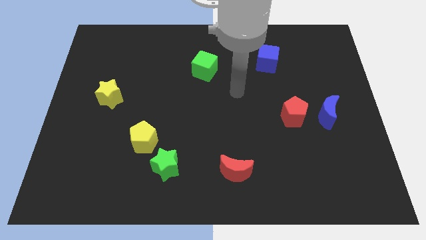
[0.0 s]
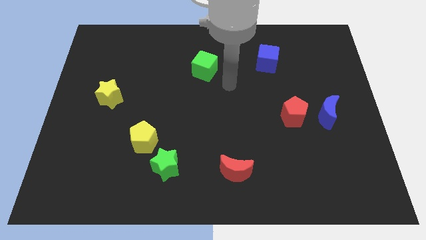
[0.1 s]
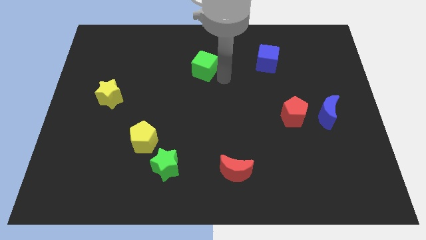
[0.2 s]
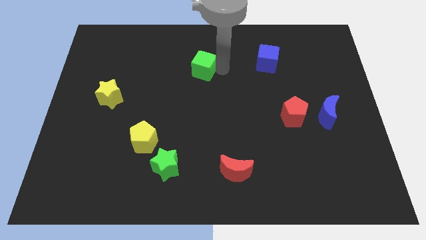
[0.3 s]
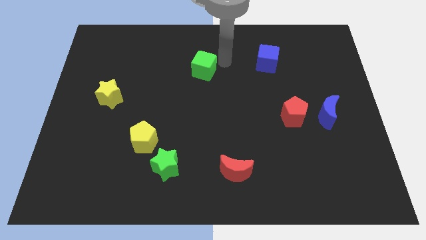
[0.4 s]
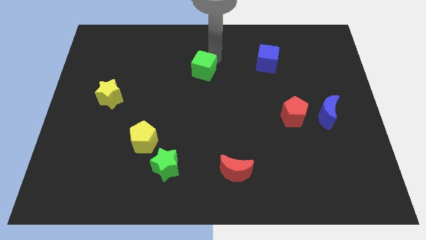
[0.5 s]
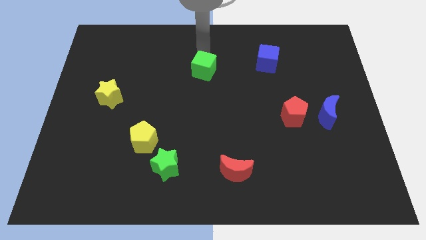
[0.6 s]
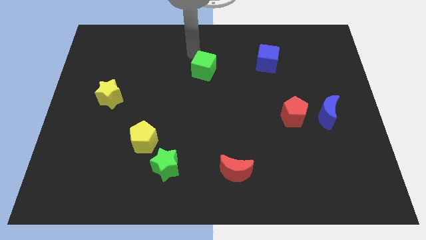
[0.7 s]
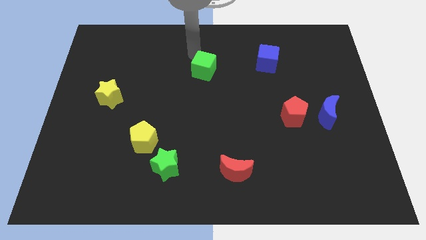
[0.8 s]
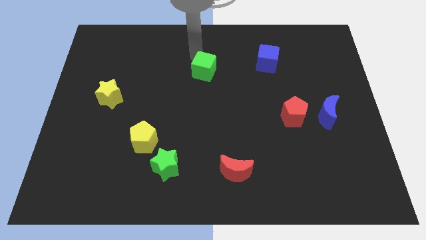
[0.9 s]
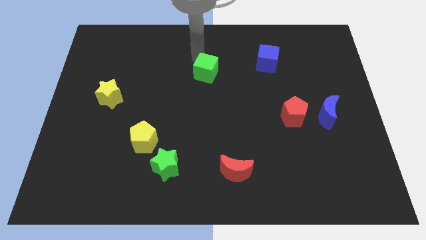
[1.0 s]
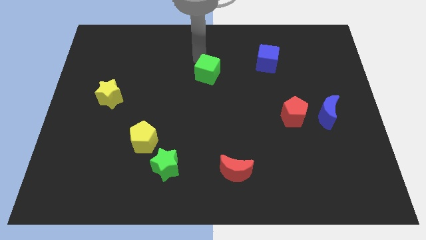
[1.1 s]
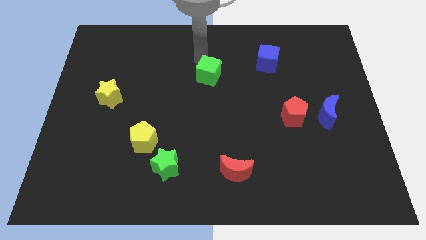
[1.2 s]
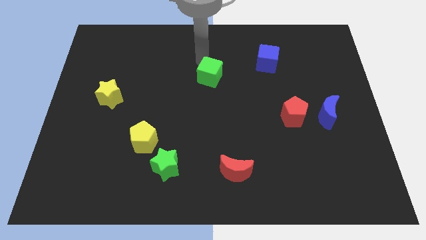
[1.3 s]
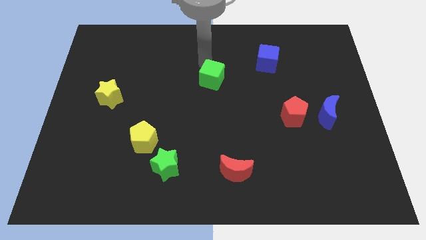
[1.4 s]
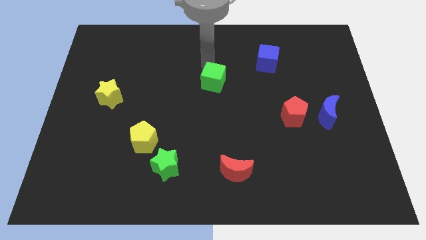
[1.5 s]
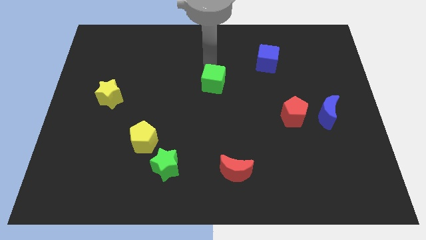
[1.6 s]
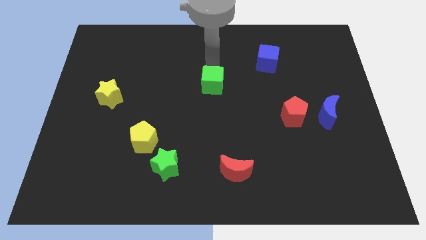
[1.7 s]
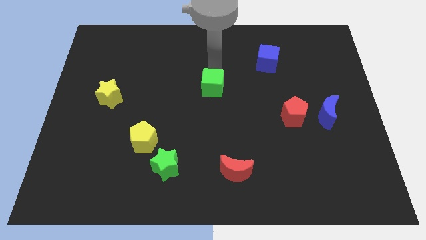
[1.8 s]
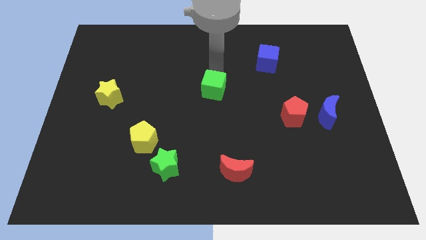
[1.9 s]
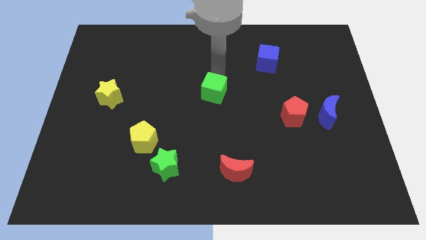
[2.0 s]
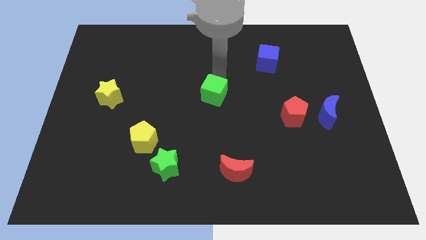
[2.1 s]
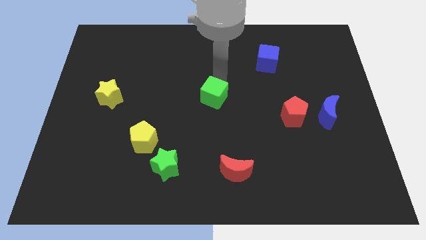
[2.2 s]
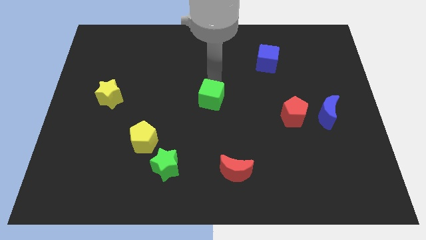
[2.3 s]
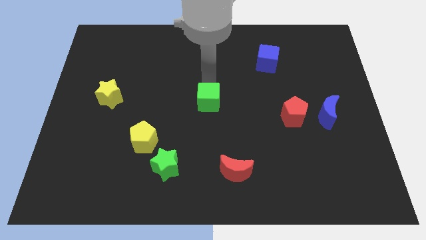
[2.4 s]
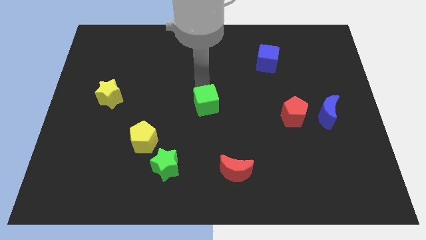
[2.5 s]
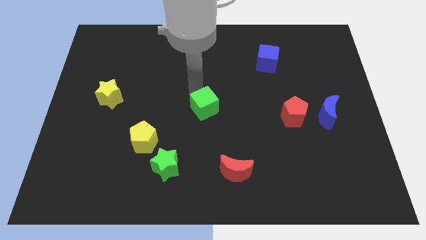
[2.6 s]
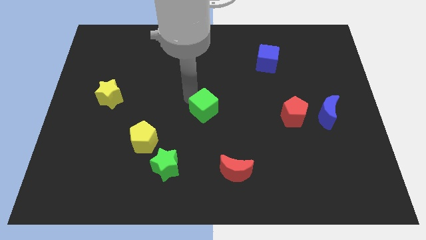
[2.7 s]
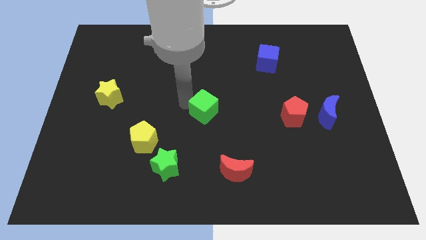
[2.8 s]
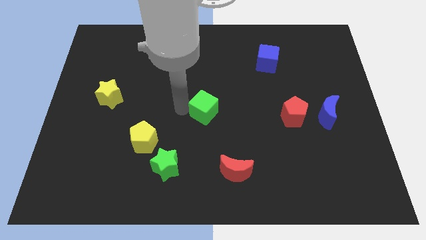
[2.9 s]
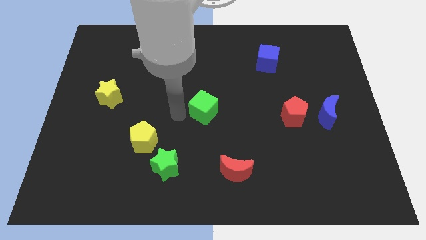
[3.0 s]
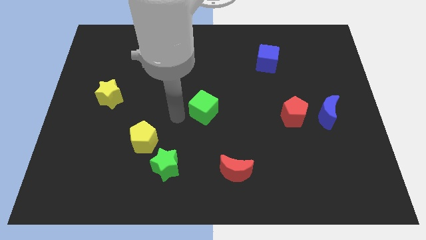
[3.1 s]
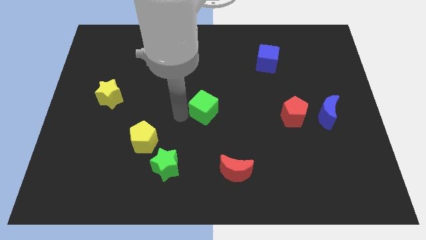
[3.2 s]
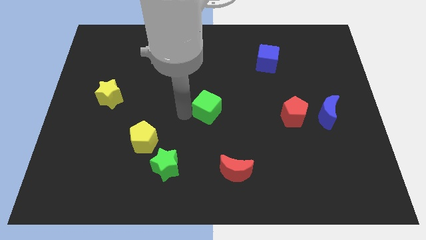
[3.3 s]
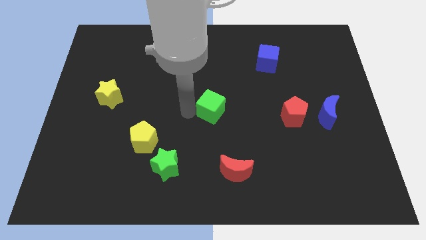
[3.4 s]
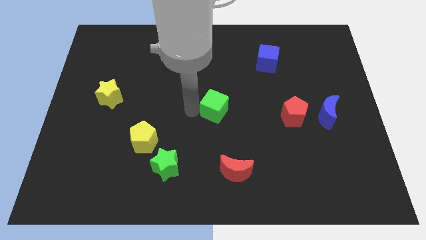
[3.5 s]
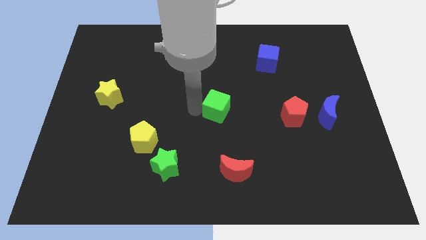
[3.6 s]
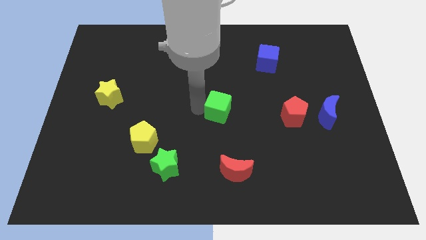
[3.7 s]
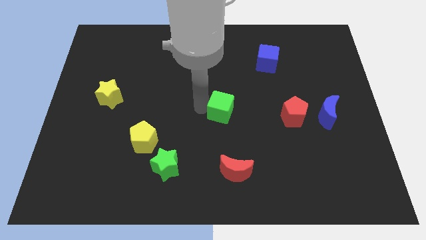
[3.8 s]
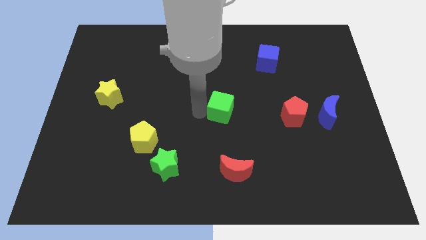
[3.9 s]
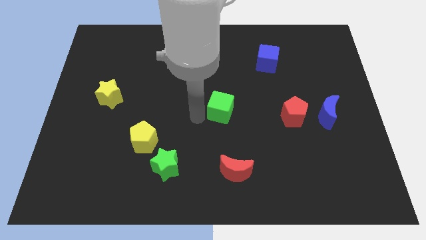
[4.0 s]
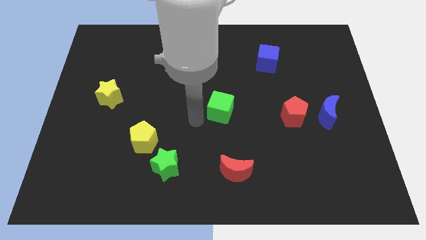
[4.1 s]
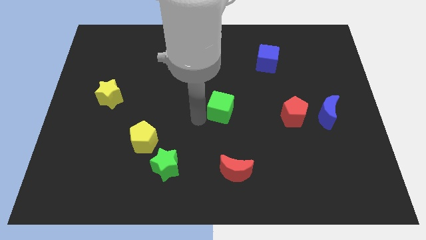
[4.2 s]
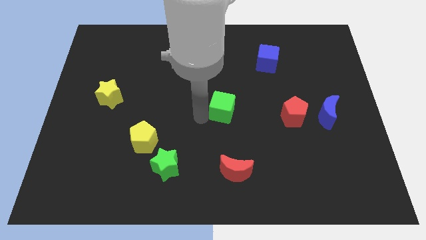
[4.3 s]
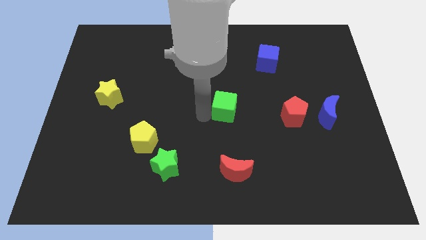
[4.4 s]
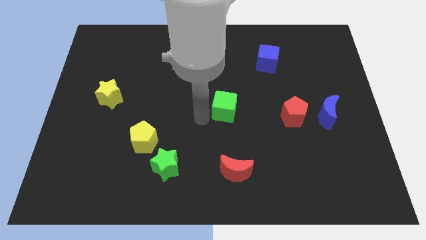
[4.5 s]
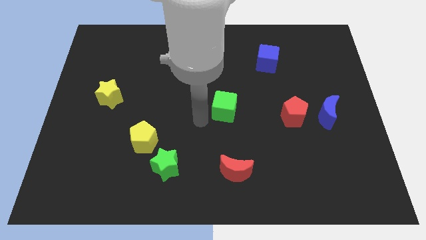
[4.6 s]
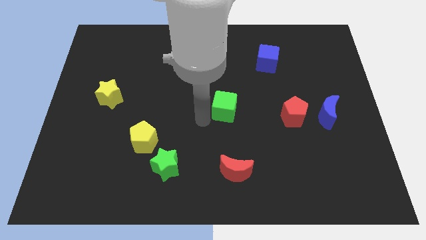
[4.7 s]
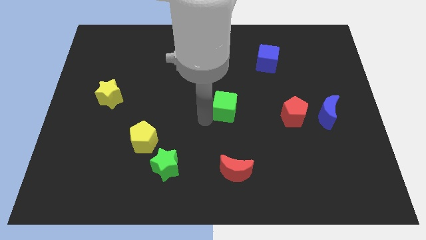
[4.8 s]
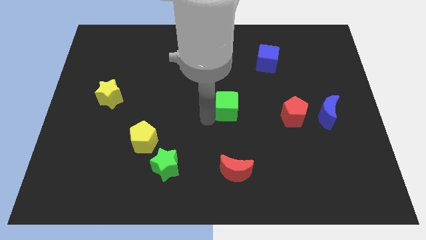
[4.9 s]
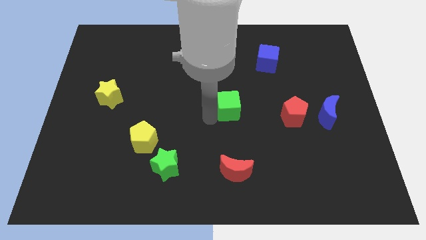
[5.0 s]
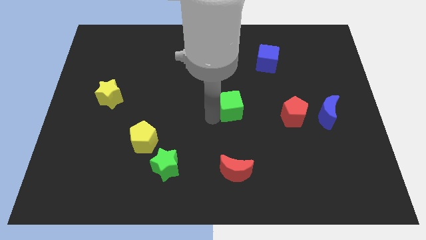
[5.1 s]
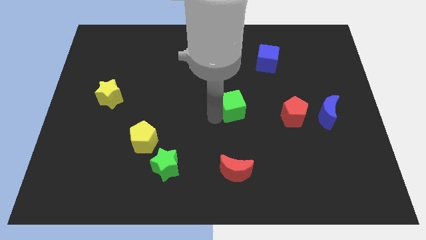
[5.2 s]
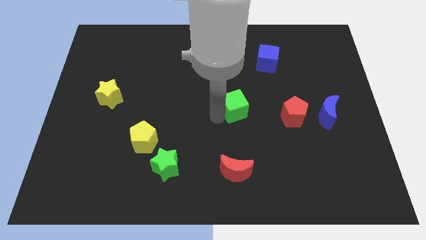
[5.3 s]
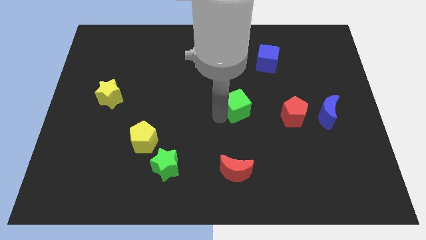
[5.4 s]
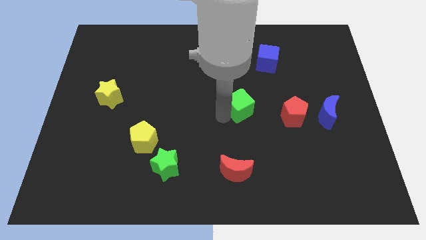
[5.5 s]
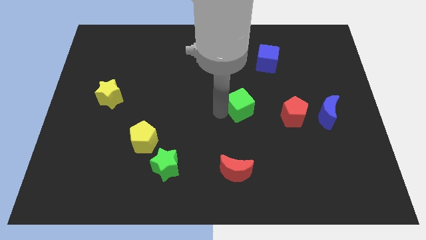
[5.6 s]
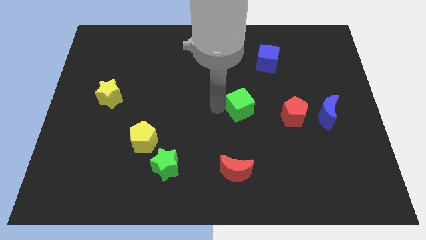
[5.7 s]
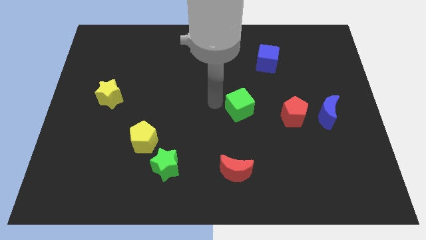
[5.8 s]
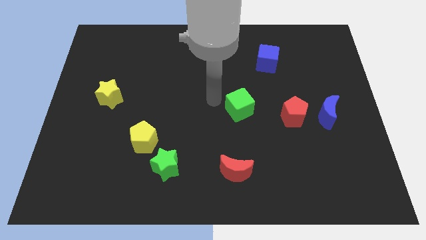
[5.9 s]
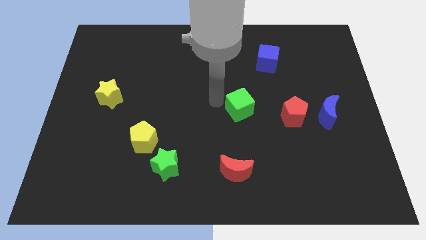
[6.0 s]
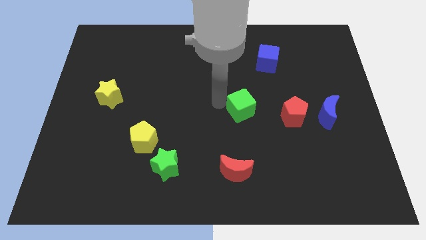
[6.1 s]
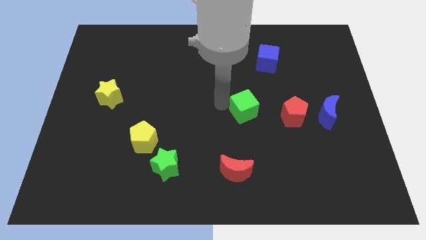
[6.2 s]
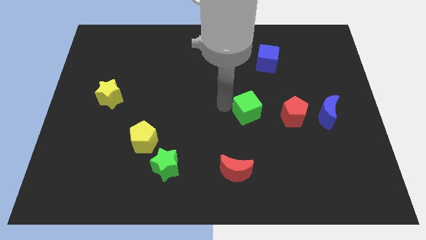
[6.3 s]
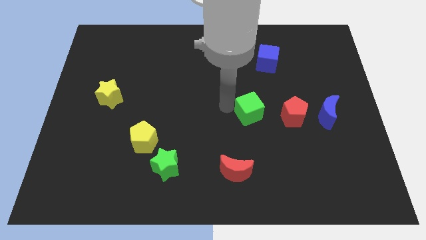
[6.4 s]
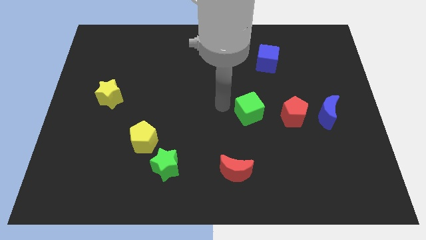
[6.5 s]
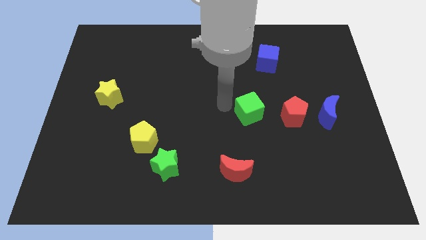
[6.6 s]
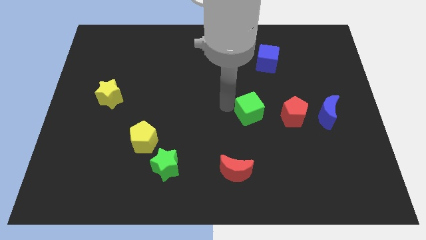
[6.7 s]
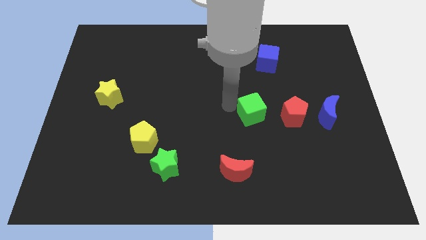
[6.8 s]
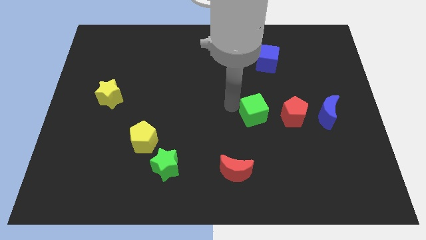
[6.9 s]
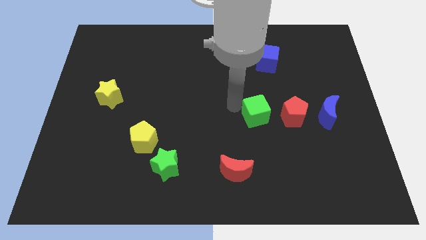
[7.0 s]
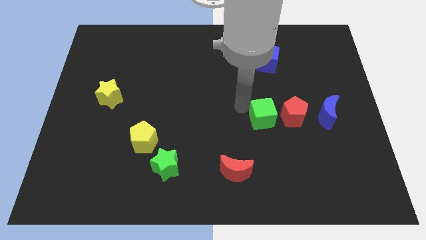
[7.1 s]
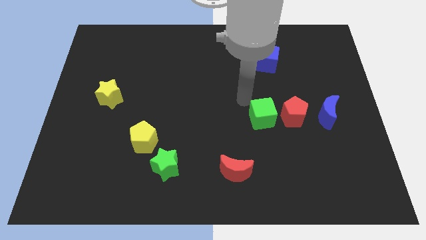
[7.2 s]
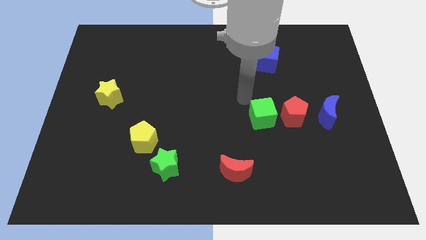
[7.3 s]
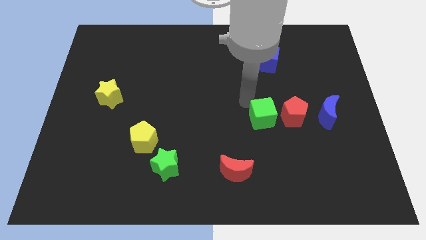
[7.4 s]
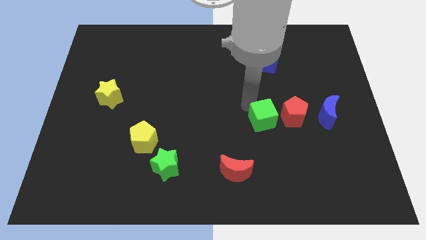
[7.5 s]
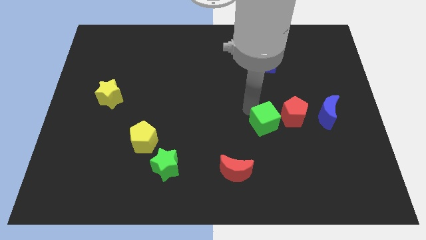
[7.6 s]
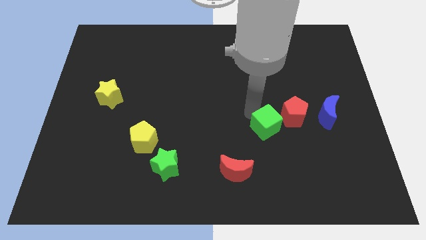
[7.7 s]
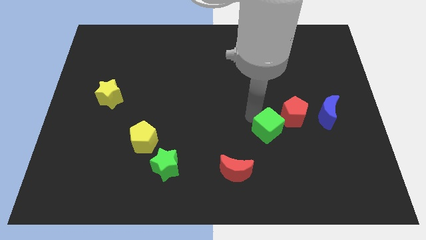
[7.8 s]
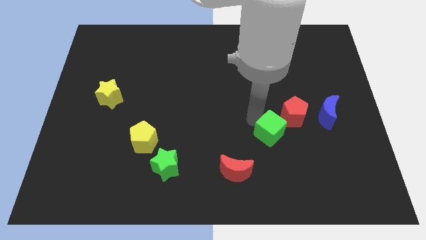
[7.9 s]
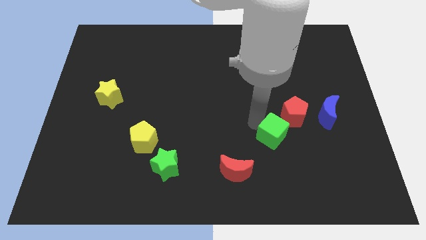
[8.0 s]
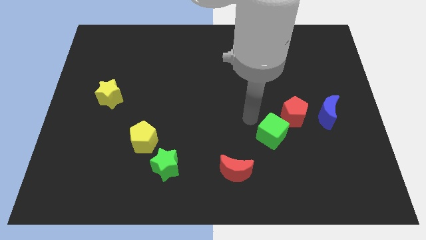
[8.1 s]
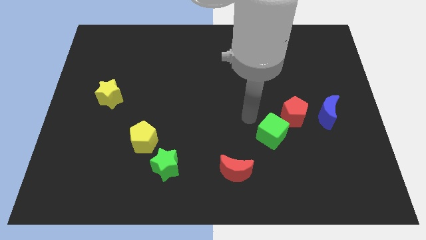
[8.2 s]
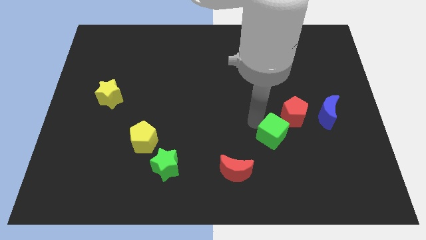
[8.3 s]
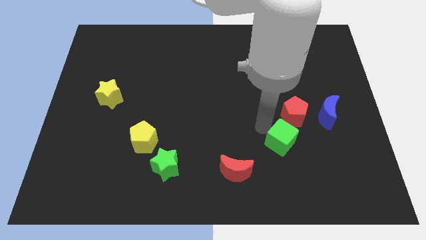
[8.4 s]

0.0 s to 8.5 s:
push the green cube below the red pentagon
